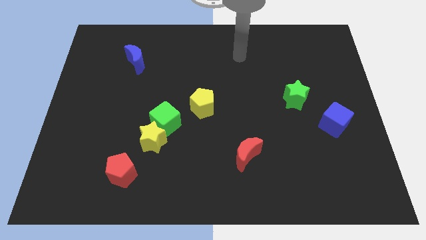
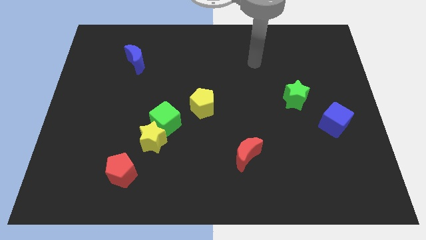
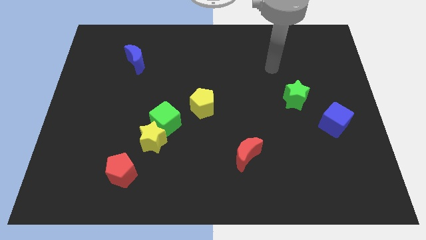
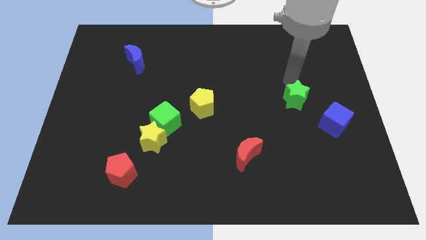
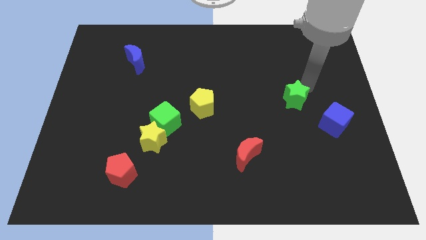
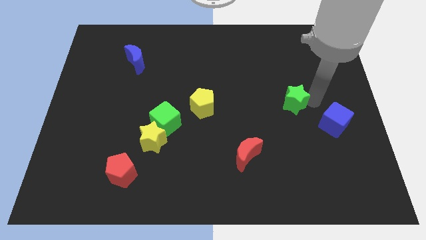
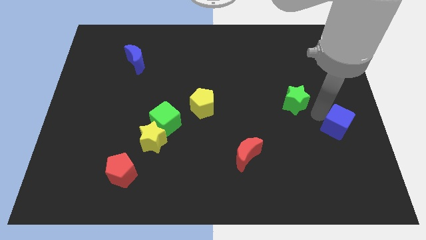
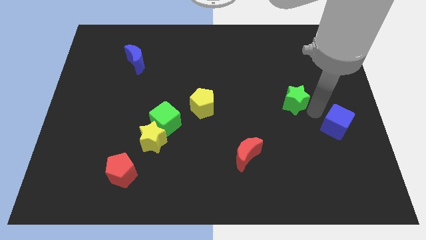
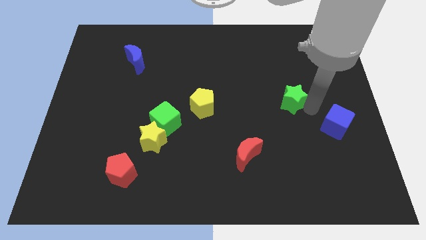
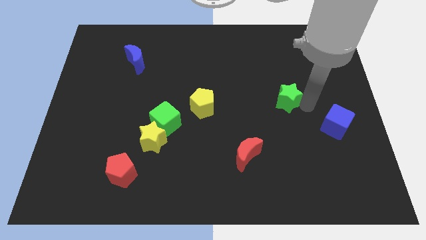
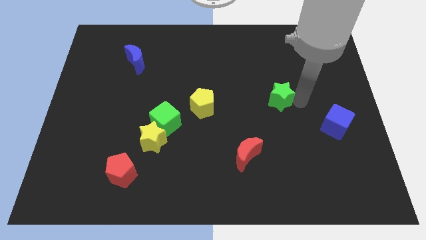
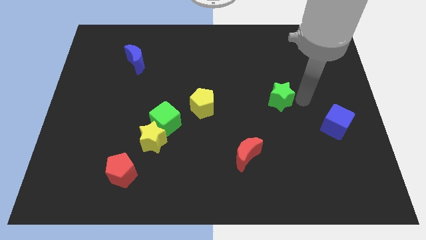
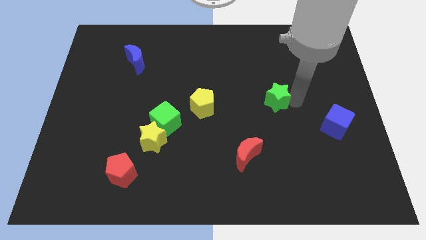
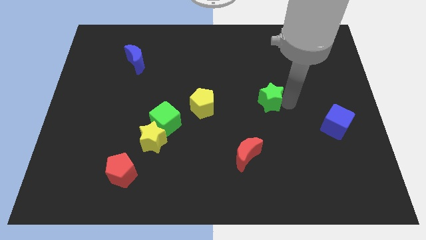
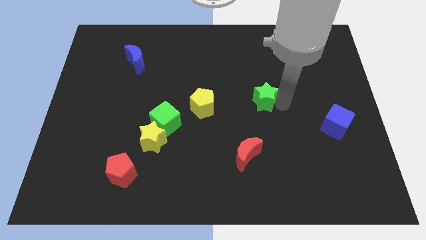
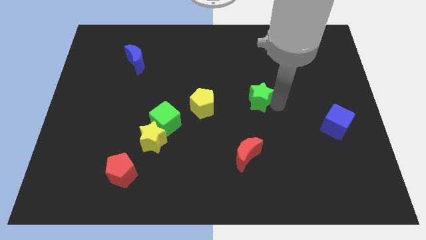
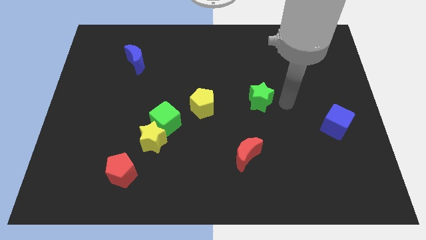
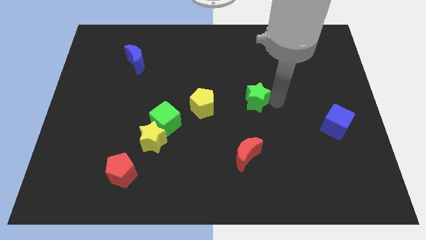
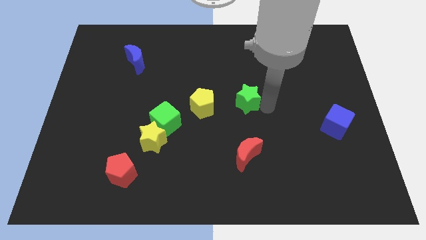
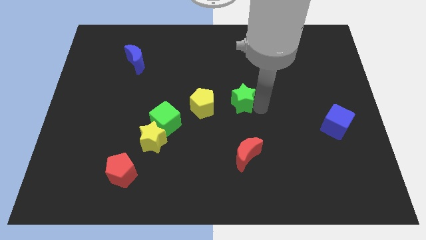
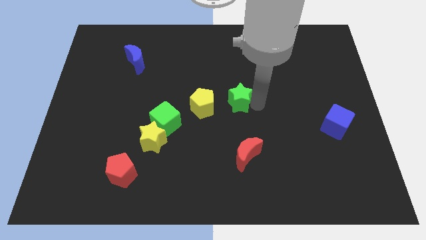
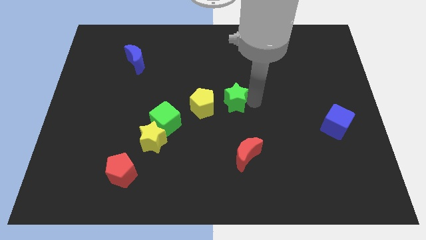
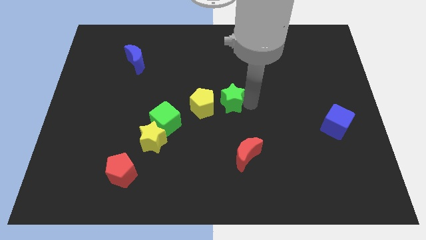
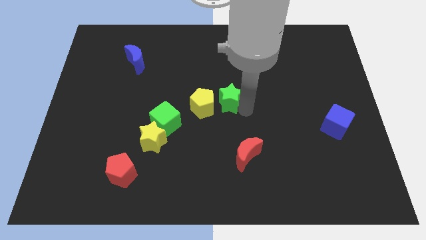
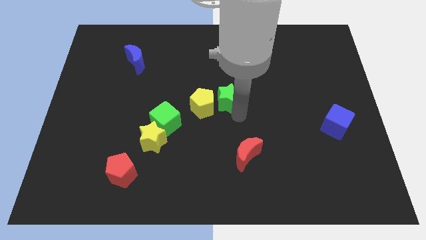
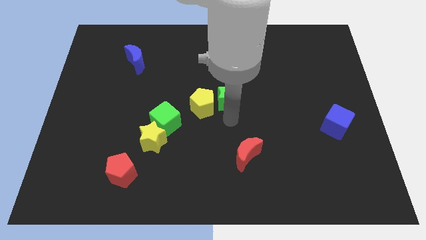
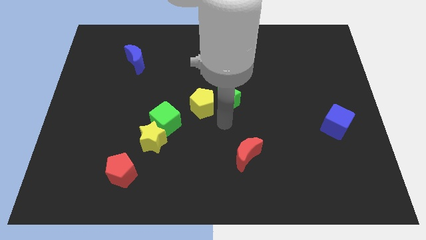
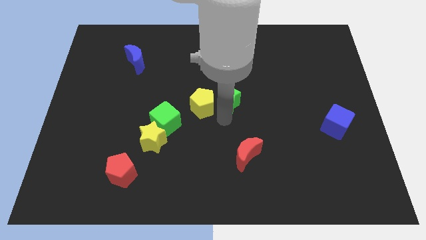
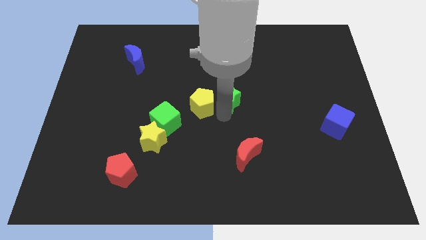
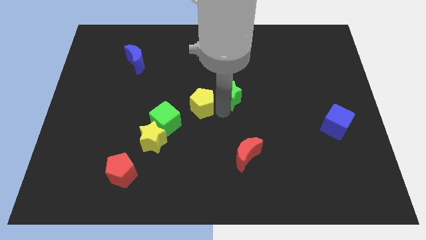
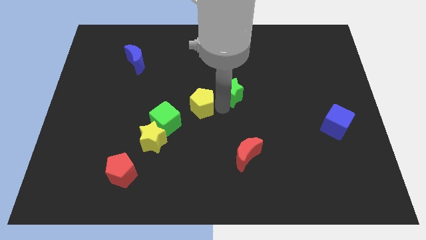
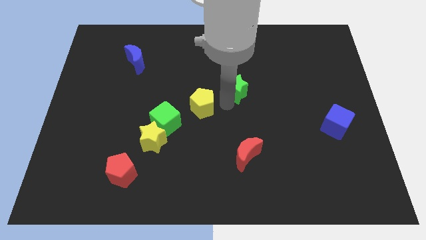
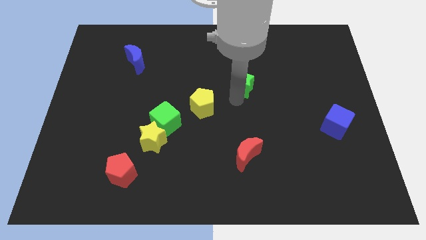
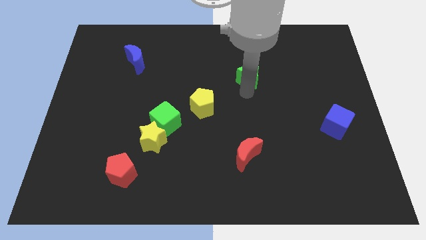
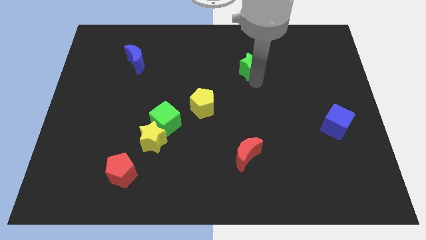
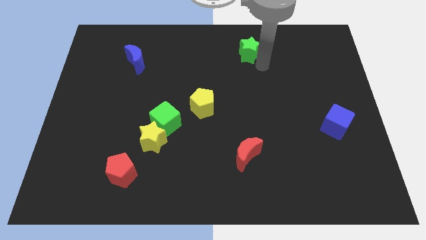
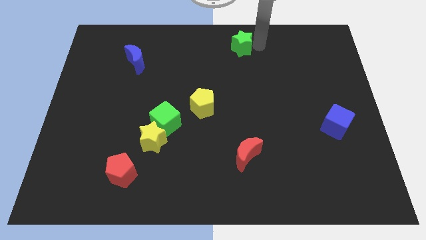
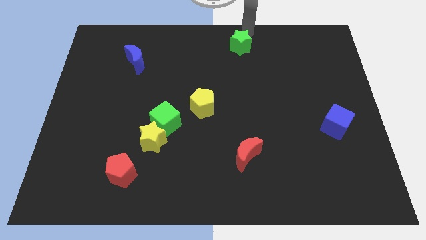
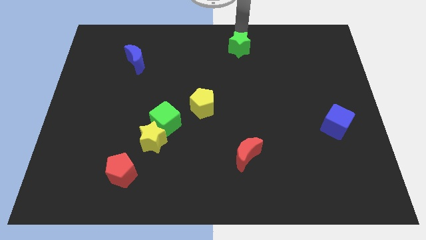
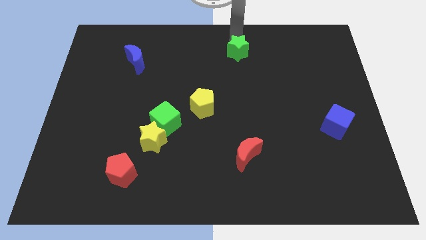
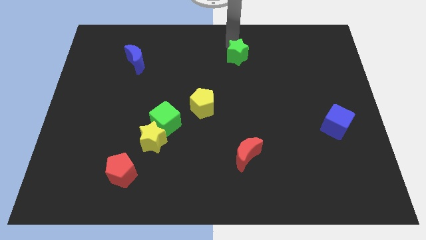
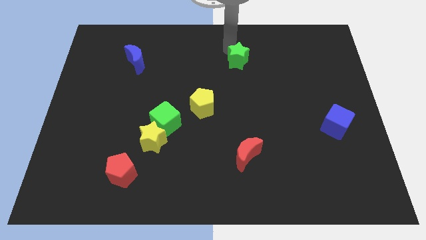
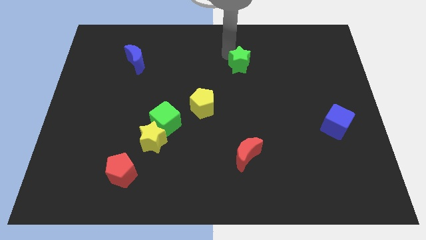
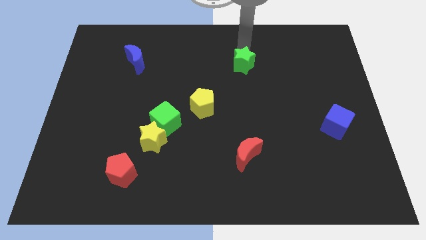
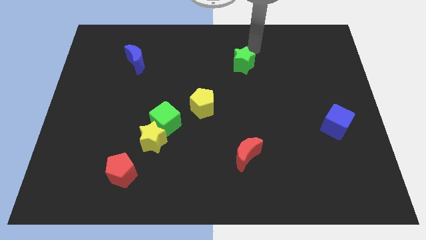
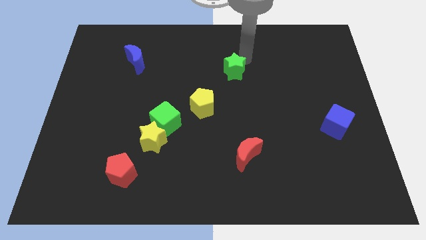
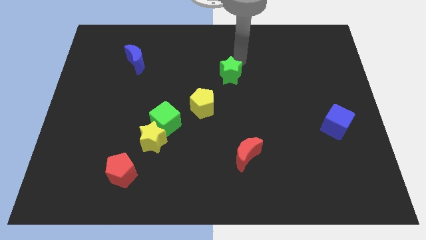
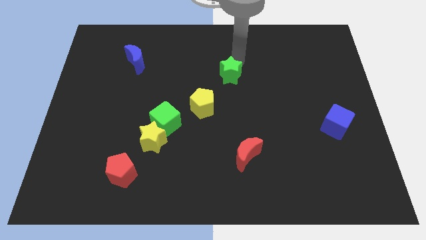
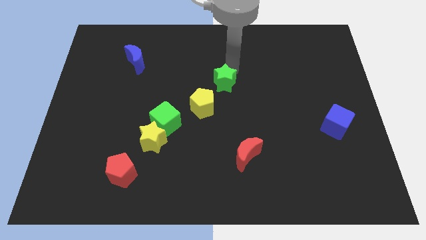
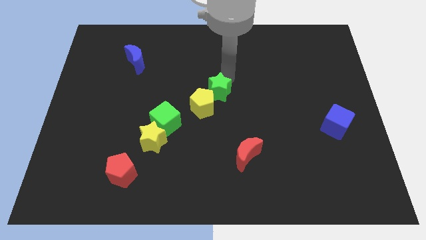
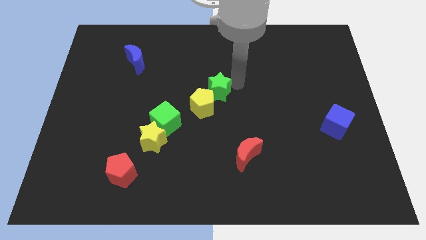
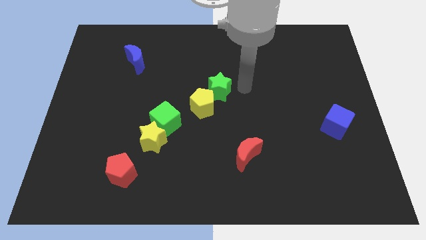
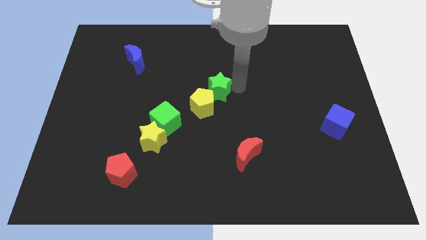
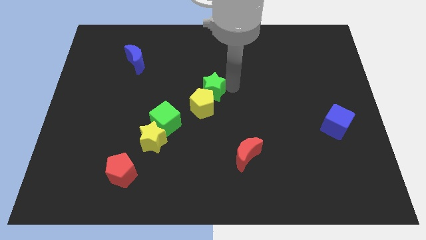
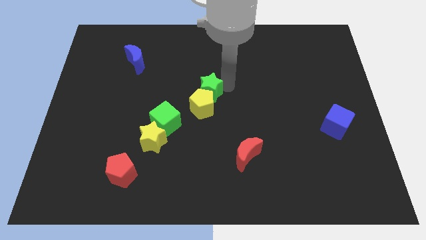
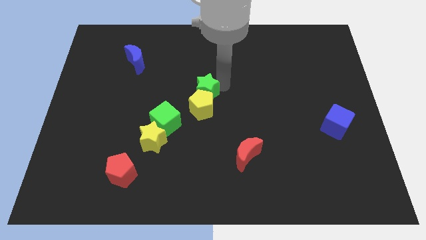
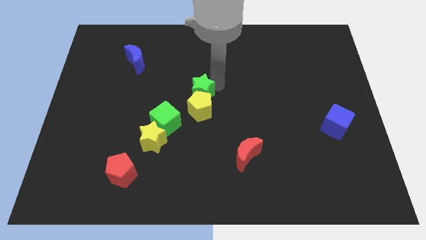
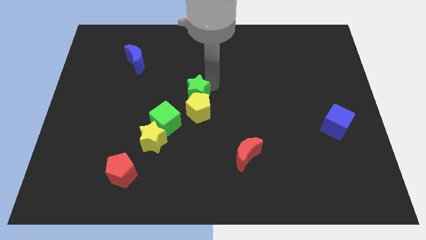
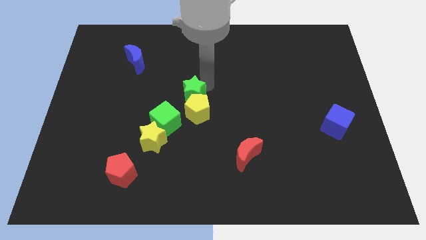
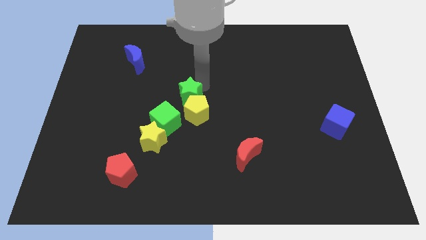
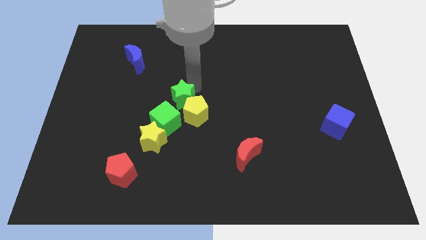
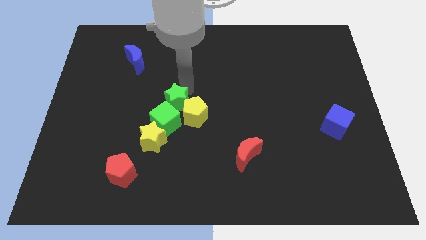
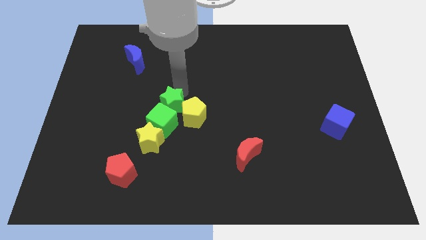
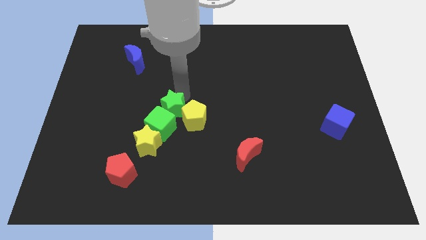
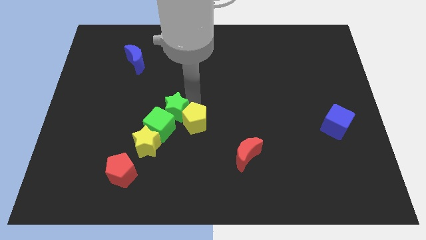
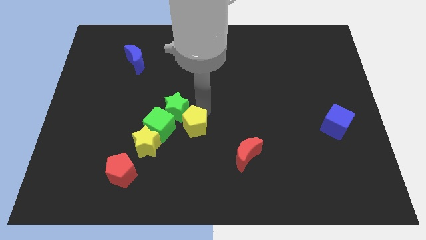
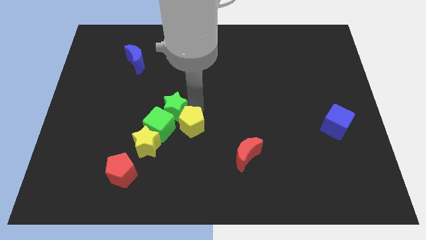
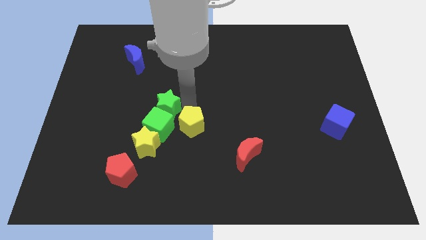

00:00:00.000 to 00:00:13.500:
move the green star to the top left of the green cube

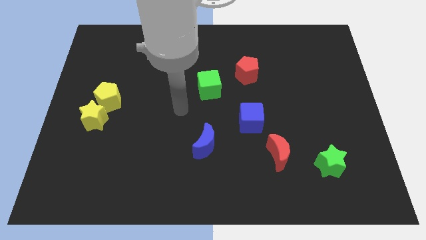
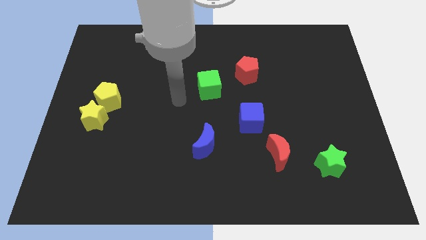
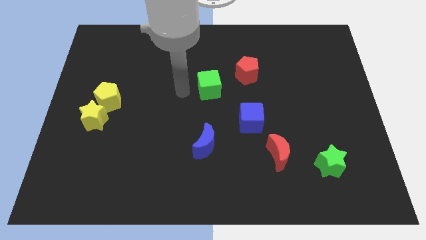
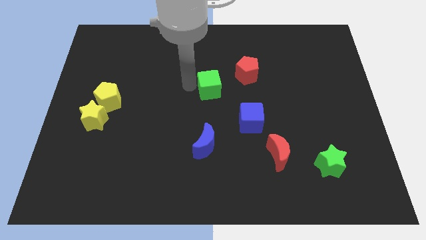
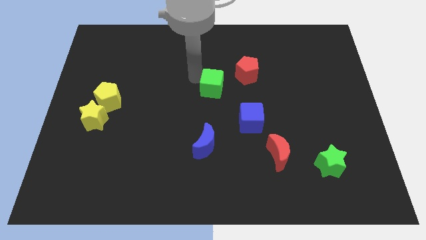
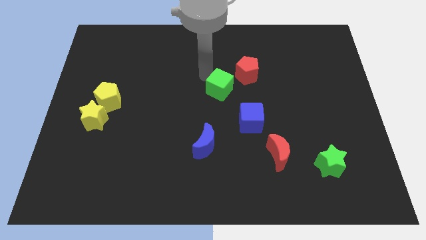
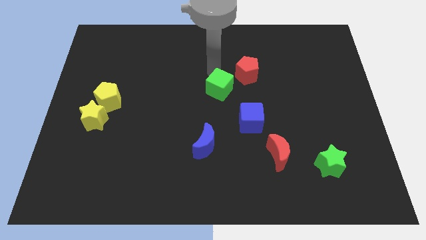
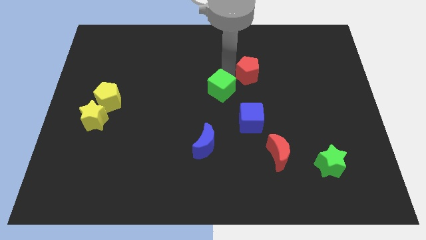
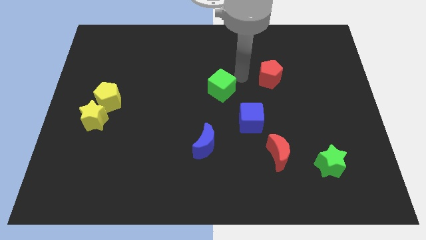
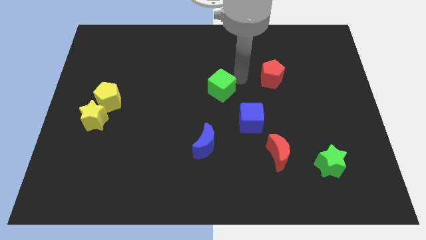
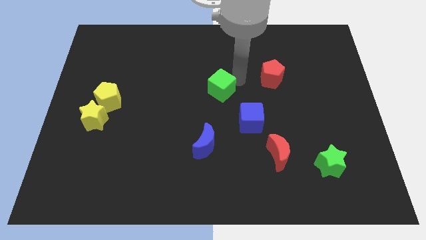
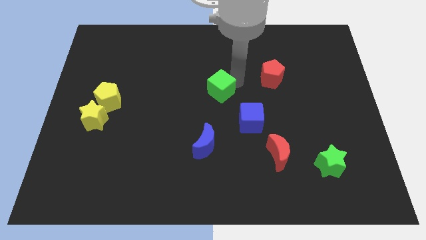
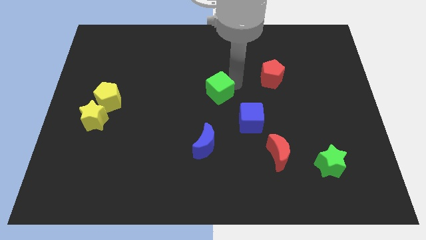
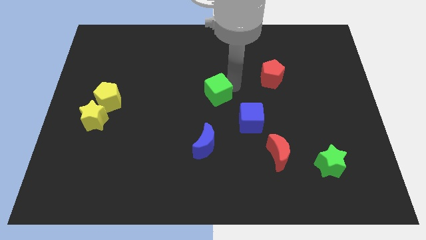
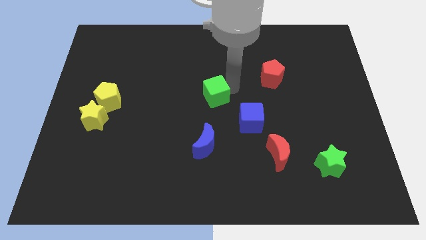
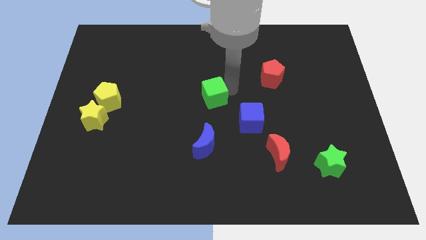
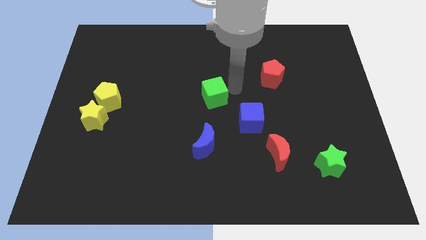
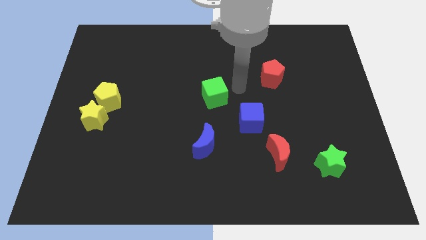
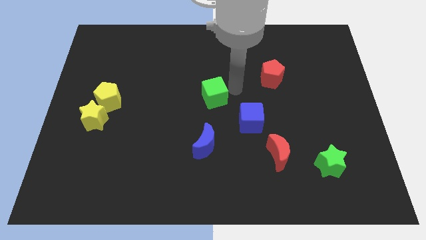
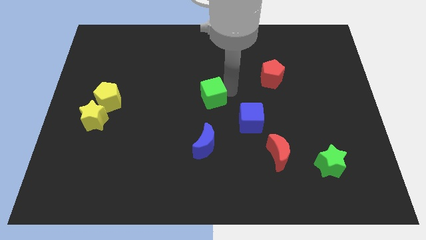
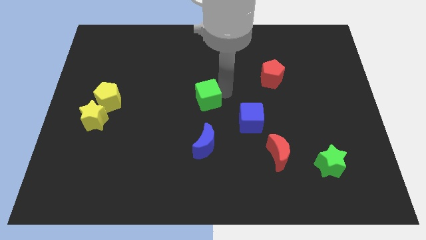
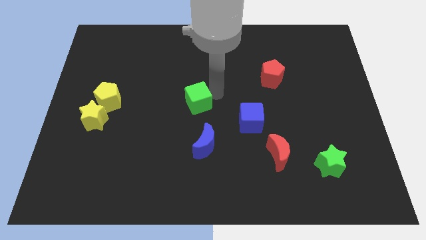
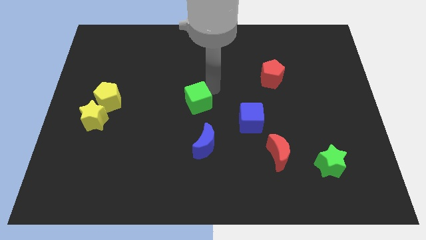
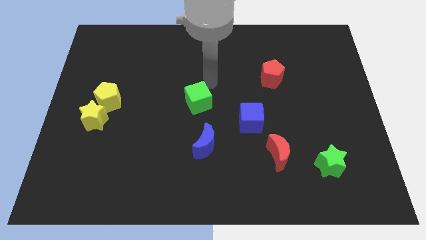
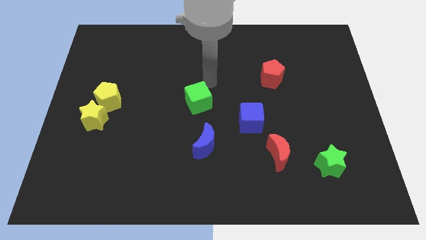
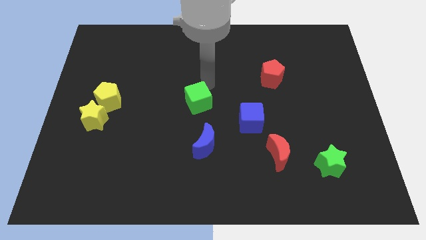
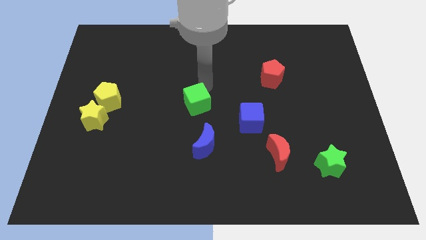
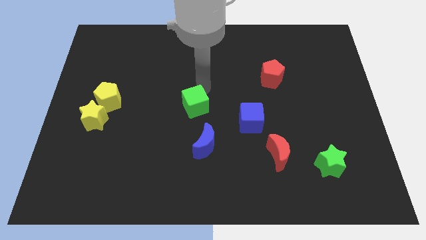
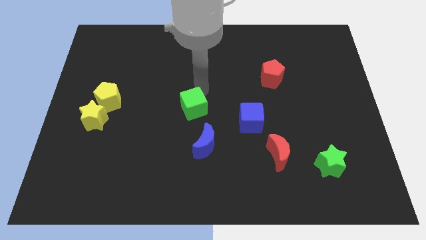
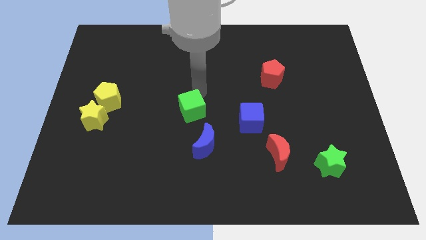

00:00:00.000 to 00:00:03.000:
put the green cube to the top left side of the blue moon
